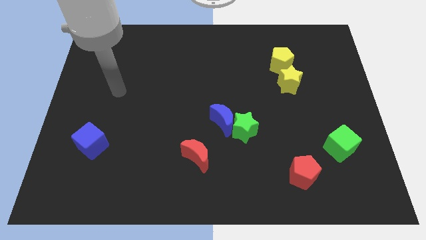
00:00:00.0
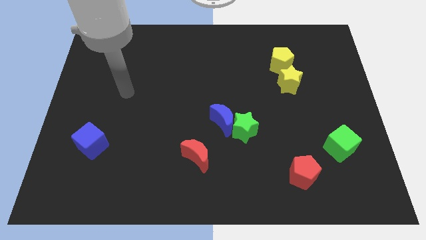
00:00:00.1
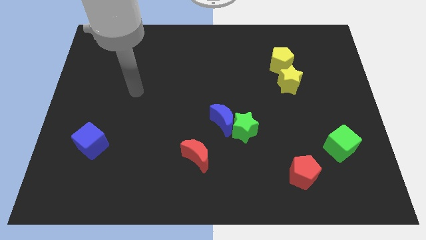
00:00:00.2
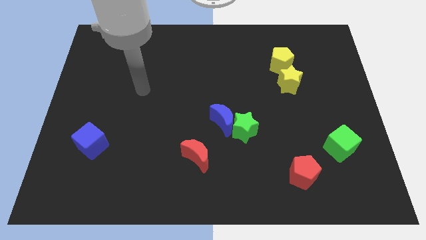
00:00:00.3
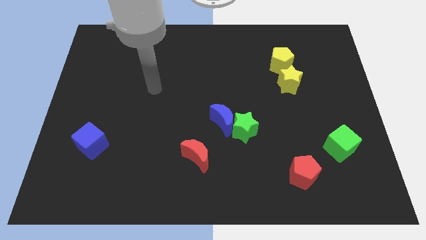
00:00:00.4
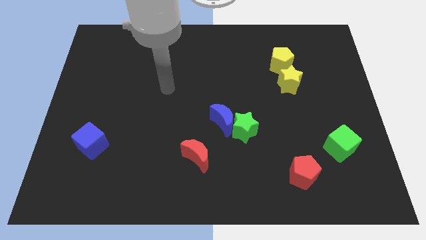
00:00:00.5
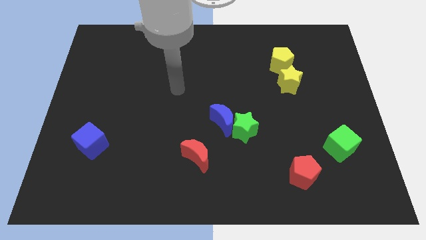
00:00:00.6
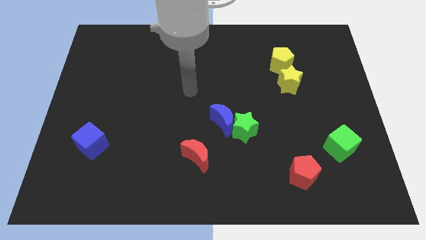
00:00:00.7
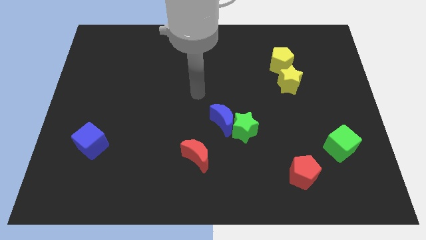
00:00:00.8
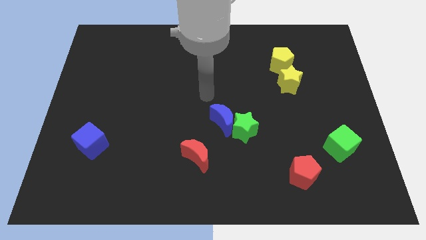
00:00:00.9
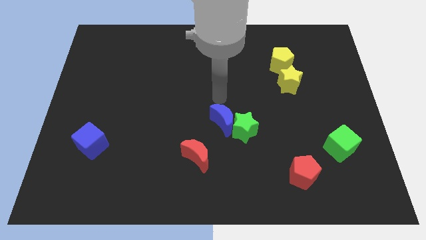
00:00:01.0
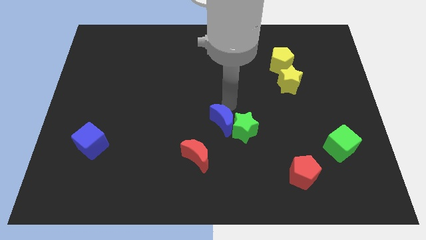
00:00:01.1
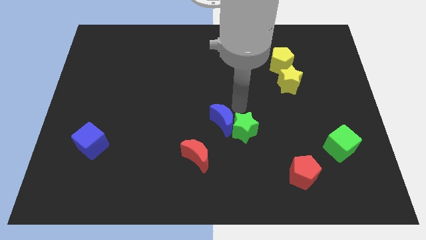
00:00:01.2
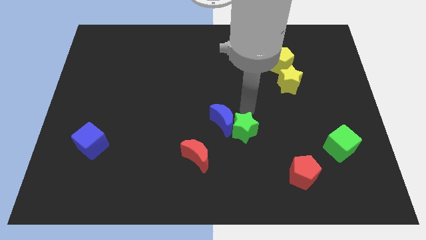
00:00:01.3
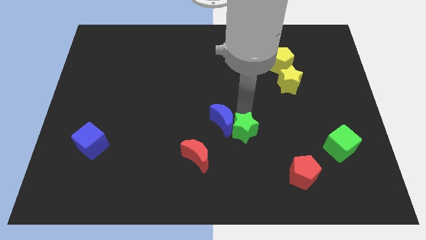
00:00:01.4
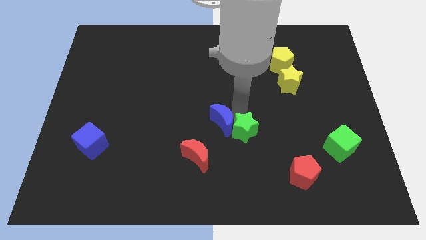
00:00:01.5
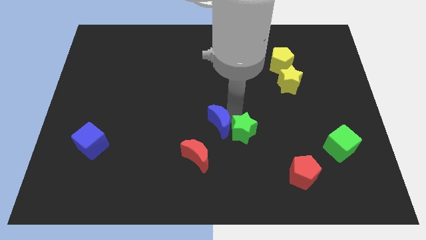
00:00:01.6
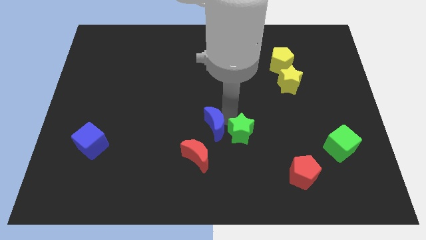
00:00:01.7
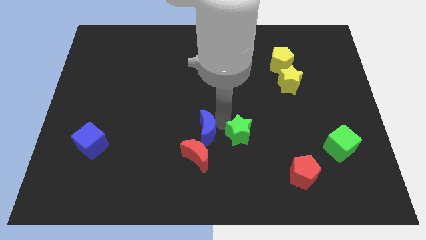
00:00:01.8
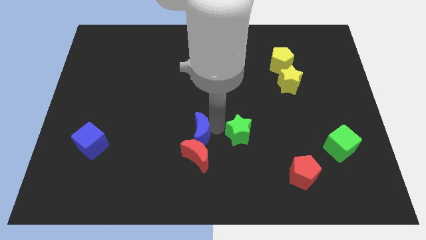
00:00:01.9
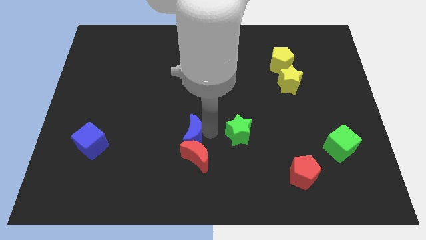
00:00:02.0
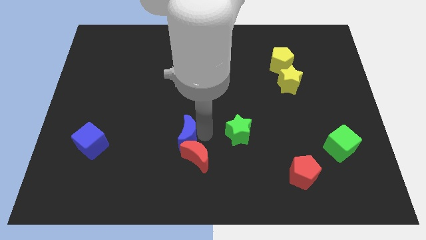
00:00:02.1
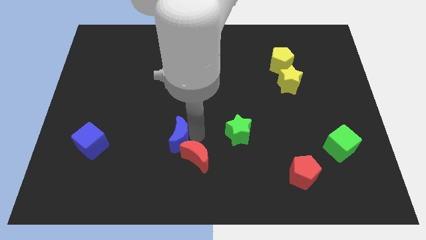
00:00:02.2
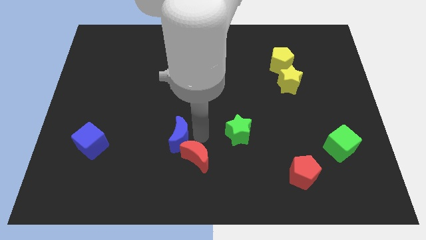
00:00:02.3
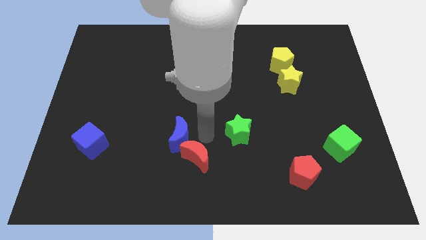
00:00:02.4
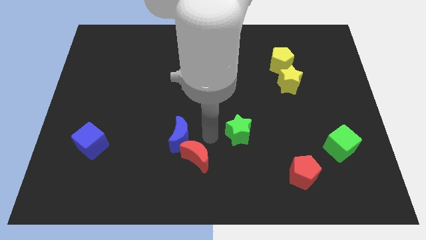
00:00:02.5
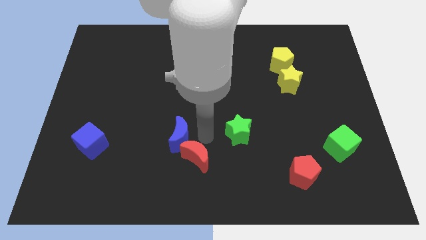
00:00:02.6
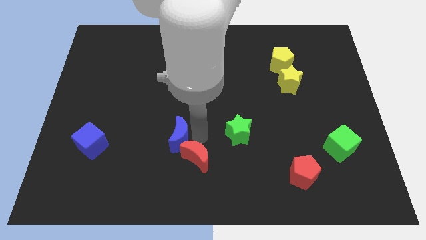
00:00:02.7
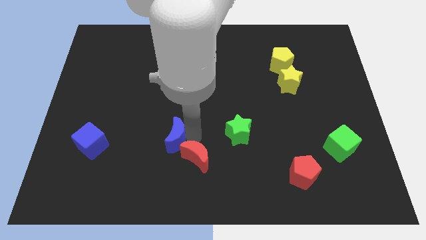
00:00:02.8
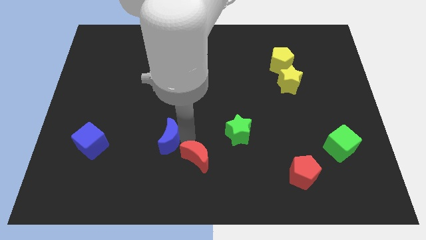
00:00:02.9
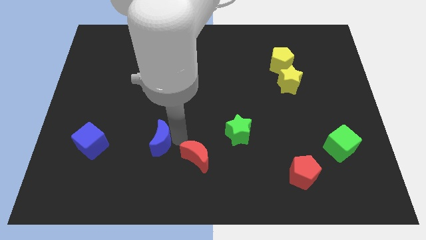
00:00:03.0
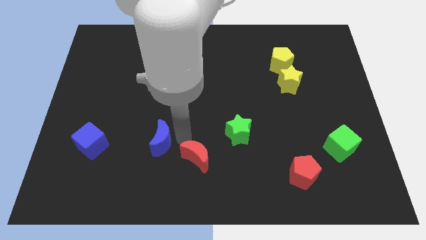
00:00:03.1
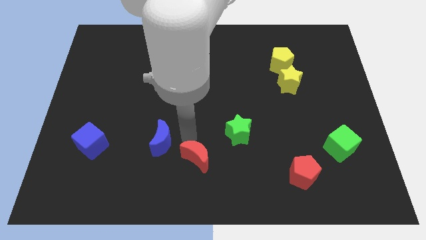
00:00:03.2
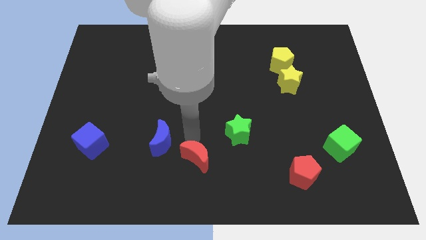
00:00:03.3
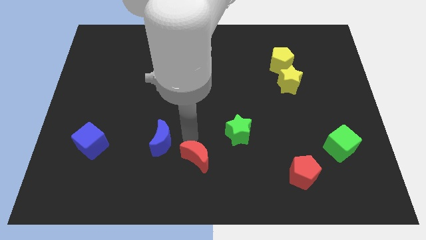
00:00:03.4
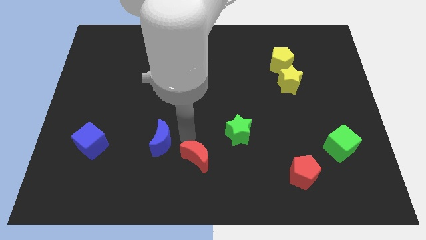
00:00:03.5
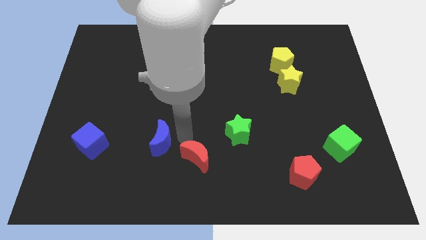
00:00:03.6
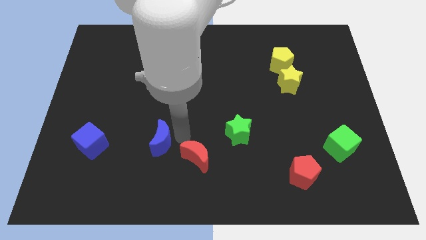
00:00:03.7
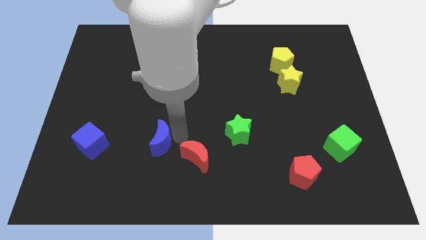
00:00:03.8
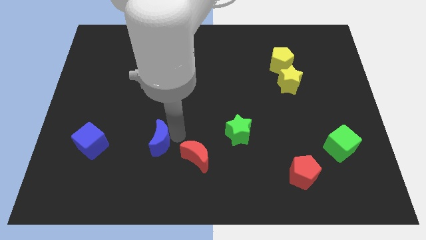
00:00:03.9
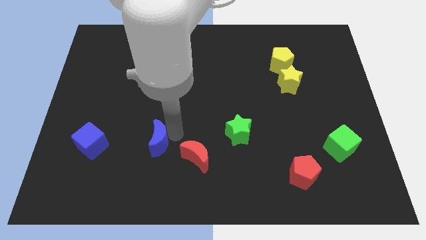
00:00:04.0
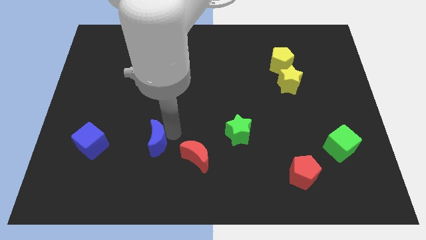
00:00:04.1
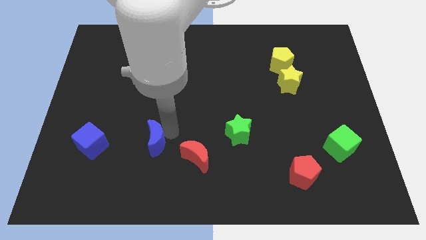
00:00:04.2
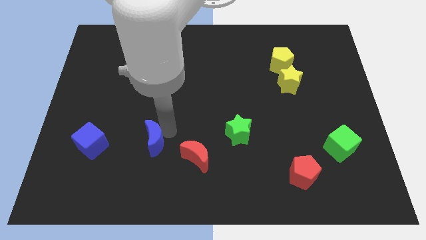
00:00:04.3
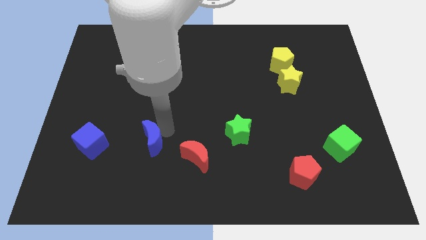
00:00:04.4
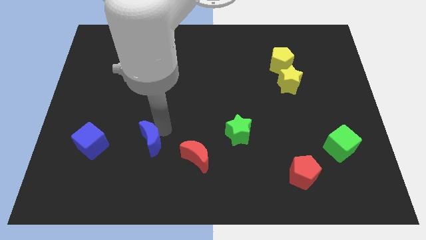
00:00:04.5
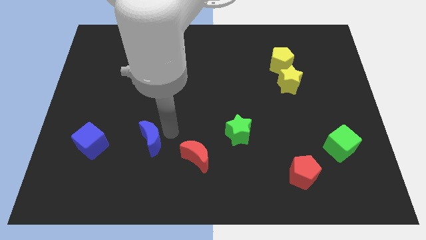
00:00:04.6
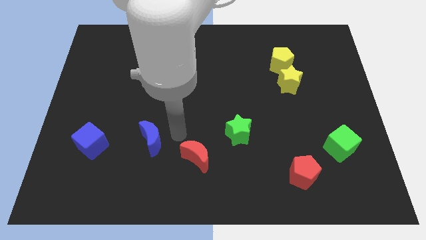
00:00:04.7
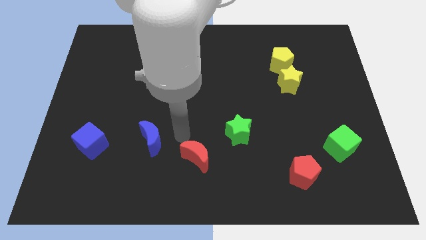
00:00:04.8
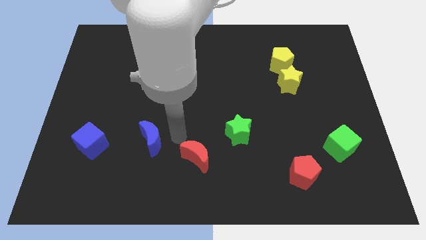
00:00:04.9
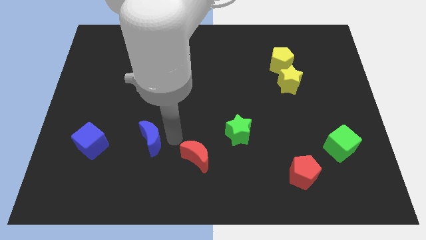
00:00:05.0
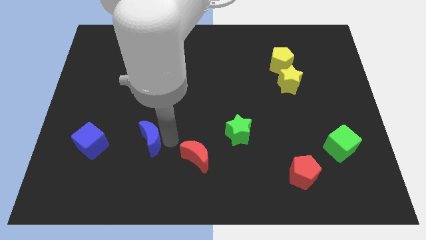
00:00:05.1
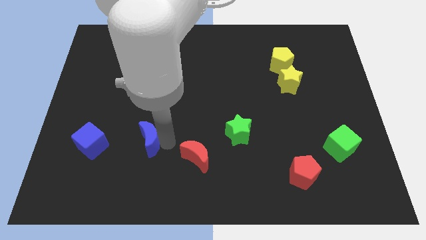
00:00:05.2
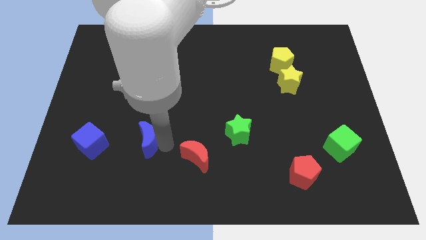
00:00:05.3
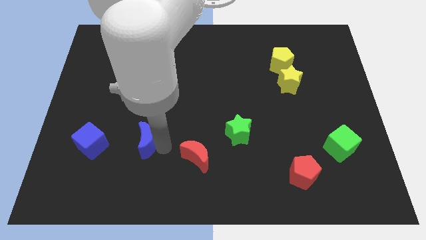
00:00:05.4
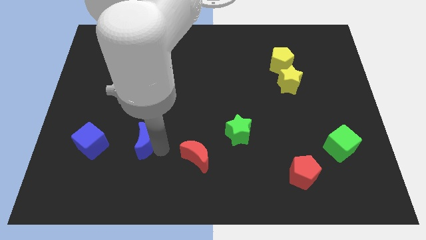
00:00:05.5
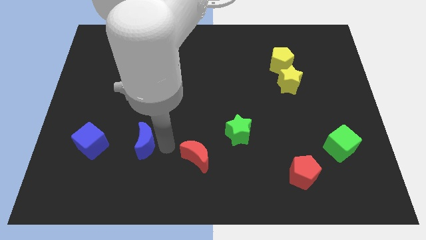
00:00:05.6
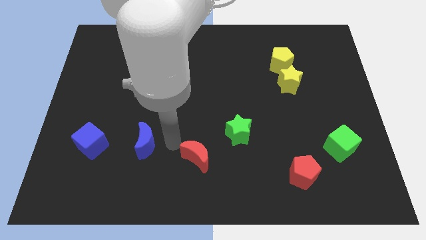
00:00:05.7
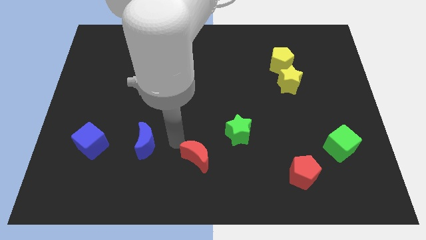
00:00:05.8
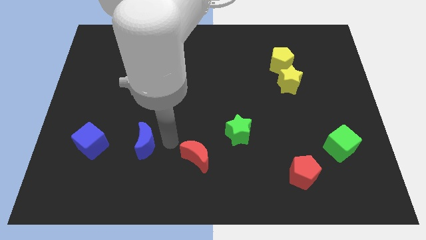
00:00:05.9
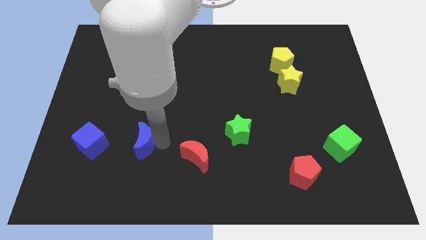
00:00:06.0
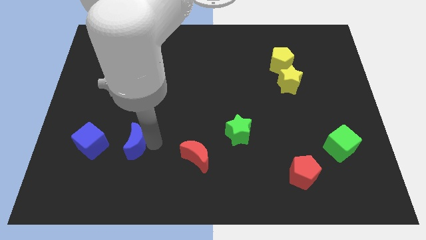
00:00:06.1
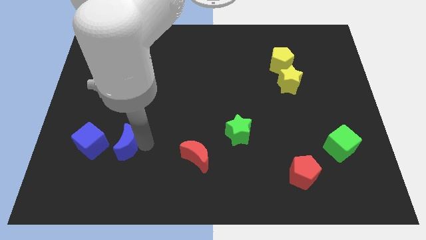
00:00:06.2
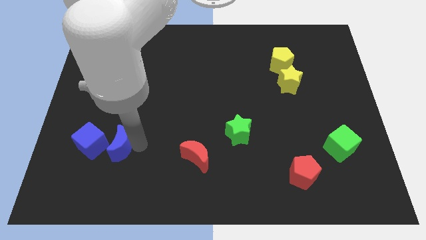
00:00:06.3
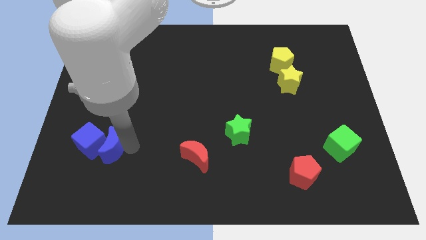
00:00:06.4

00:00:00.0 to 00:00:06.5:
push the blue moon to the blue cube

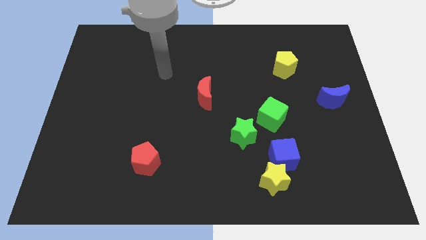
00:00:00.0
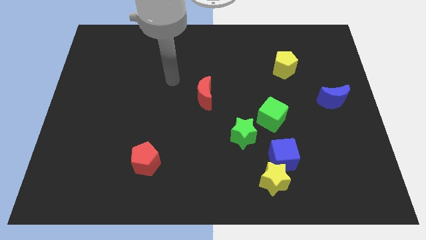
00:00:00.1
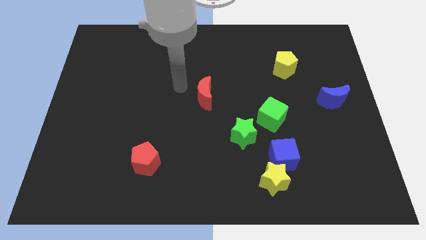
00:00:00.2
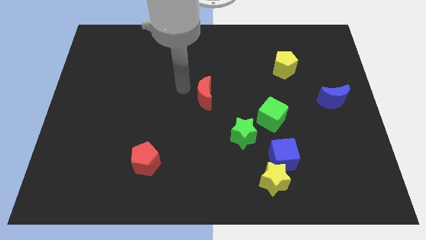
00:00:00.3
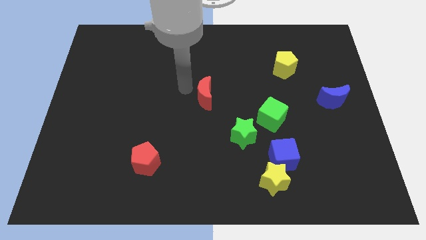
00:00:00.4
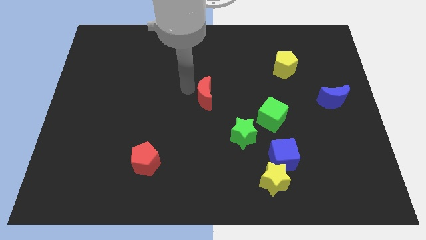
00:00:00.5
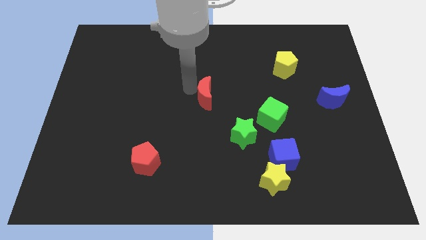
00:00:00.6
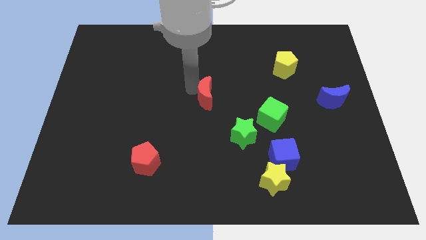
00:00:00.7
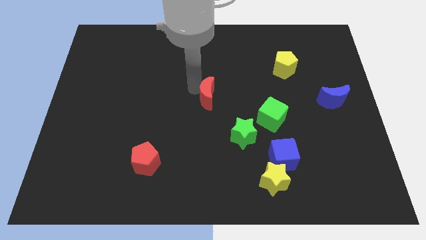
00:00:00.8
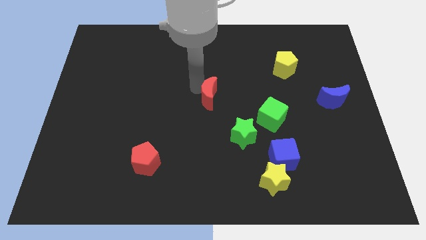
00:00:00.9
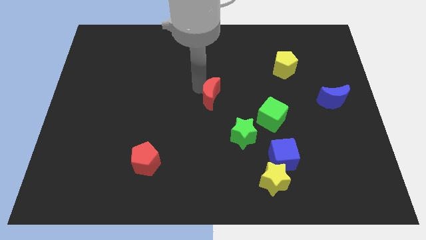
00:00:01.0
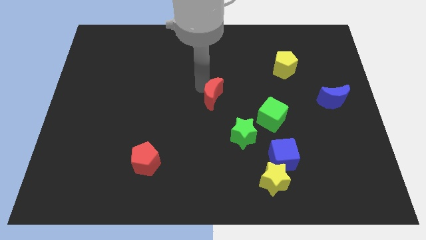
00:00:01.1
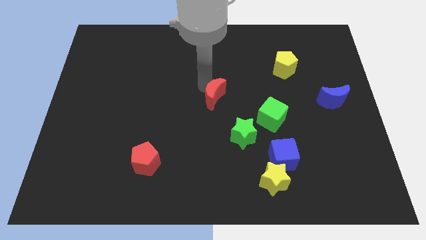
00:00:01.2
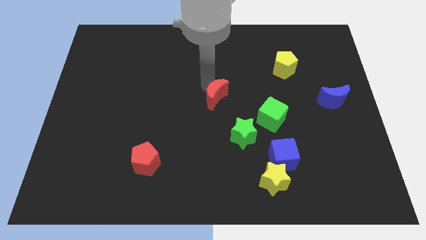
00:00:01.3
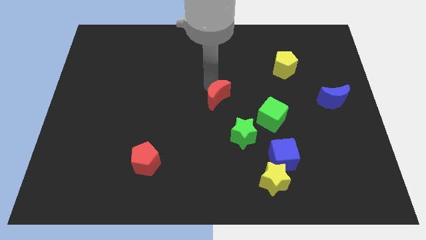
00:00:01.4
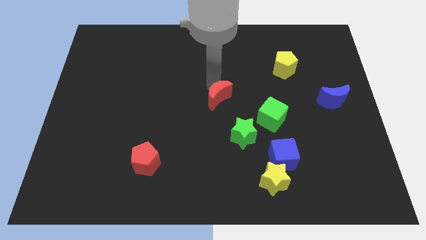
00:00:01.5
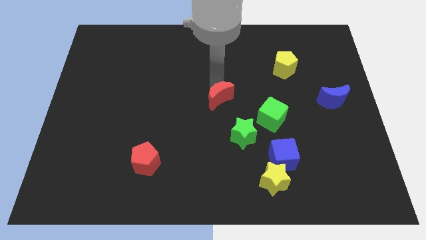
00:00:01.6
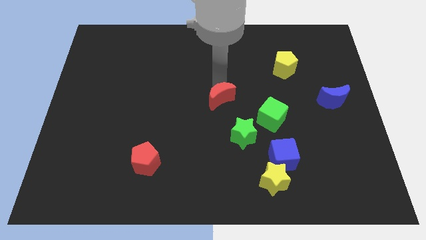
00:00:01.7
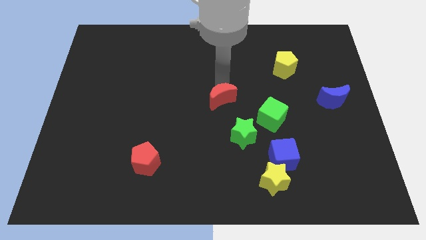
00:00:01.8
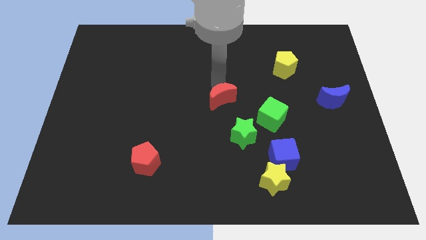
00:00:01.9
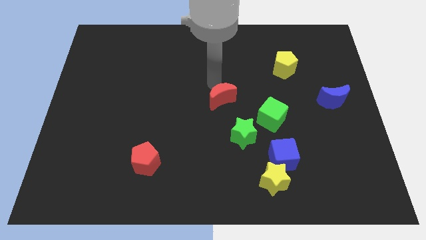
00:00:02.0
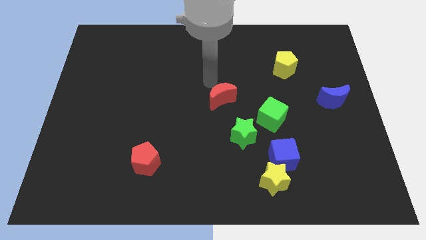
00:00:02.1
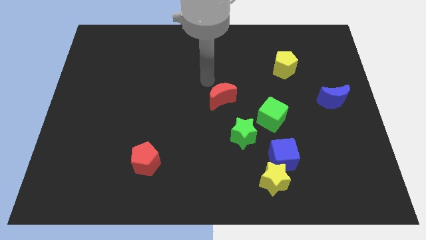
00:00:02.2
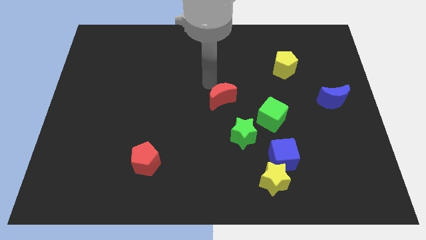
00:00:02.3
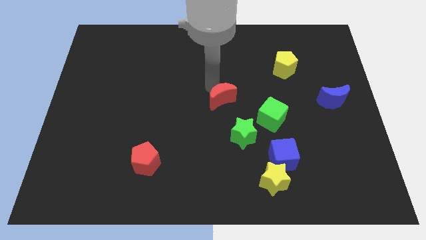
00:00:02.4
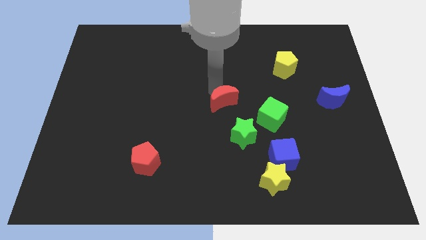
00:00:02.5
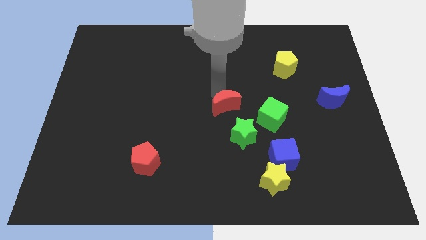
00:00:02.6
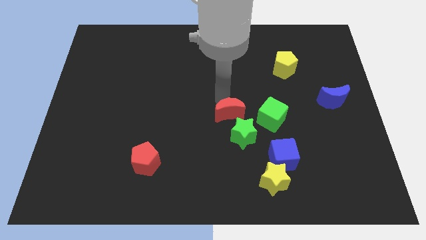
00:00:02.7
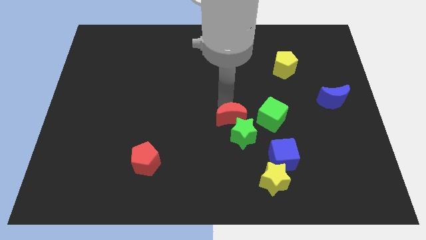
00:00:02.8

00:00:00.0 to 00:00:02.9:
put the red moon to the green star
